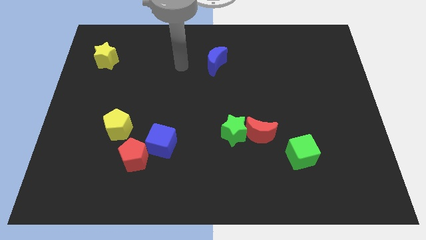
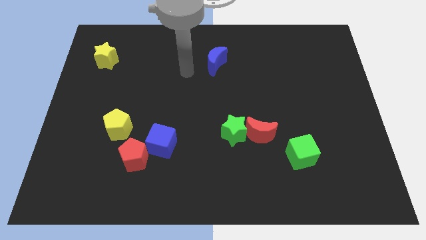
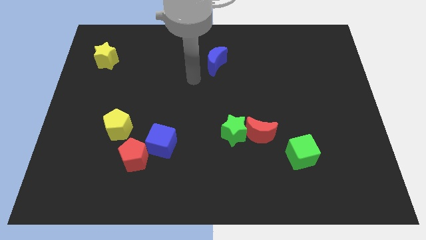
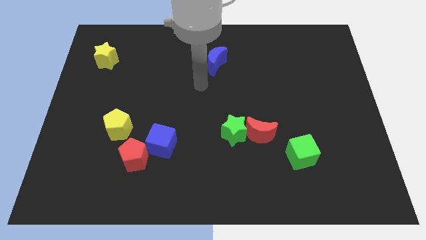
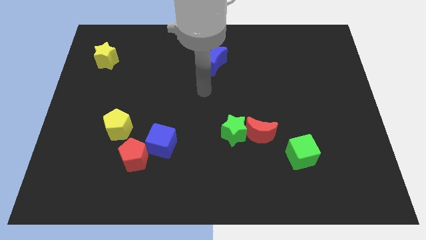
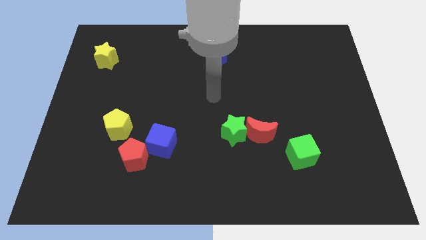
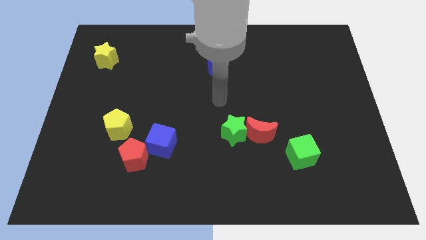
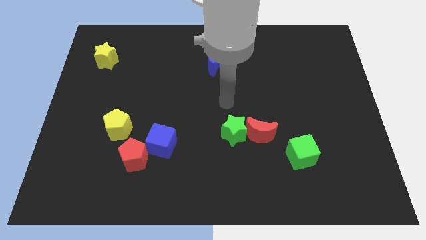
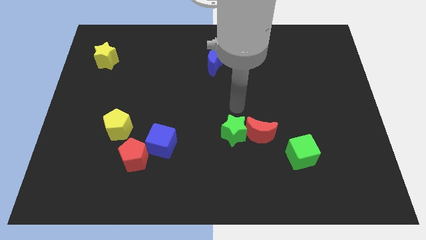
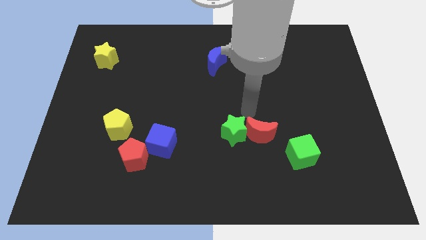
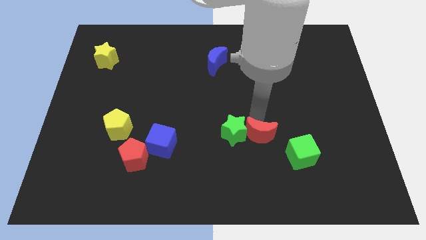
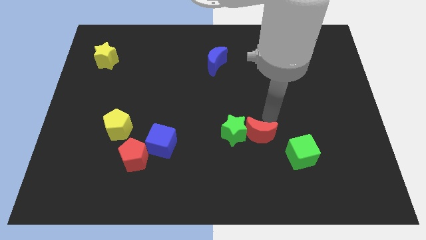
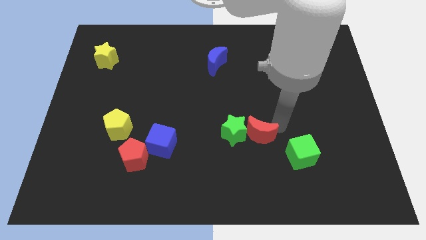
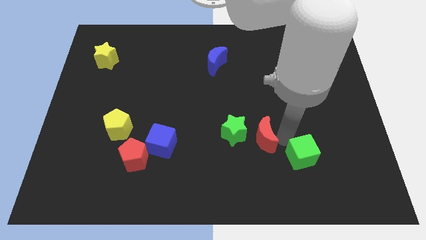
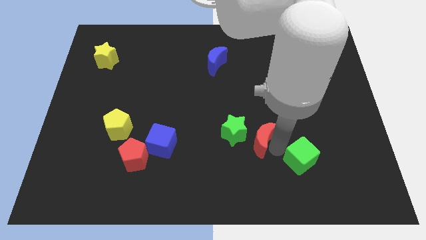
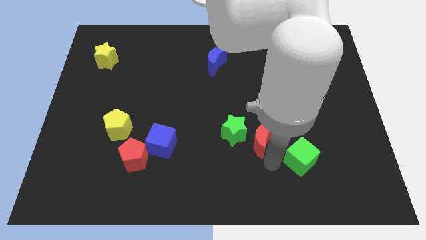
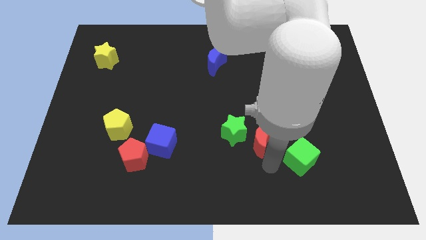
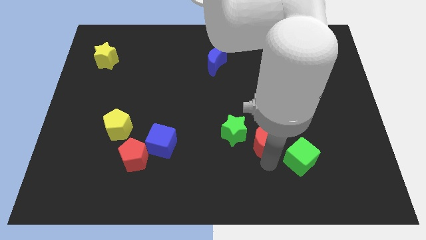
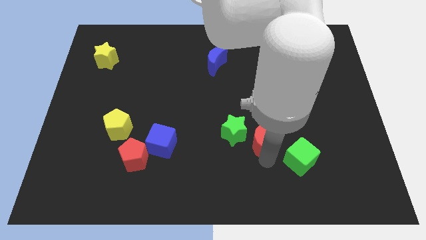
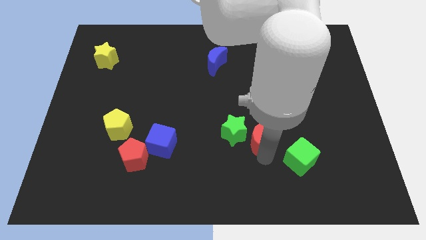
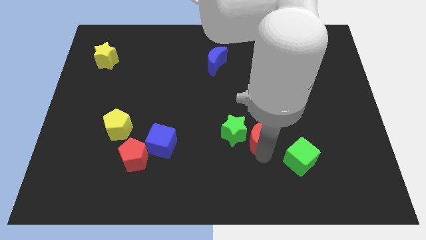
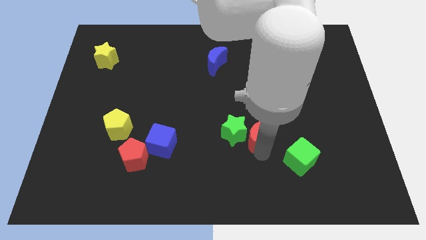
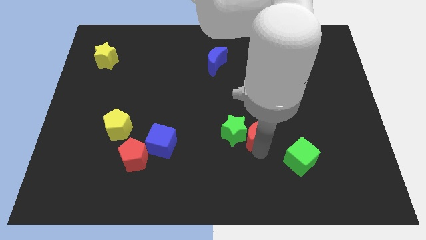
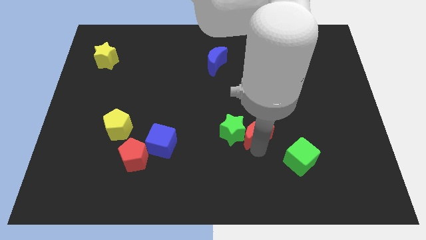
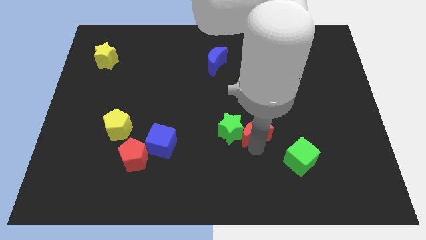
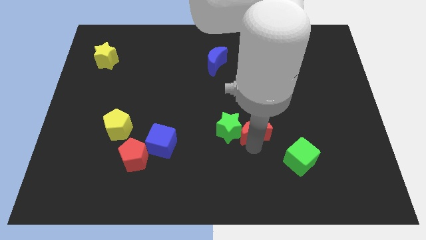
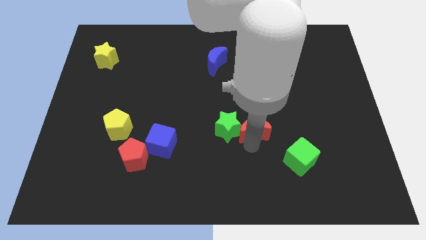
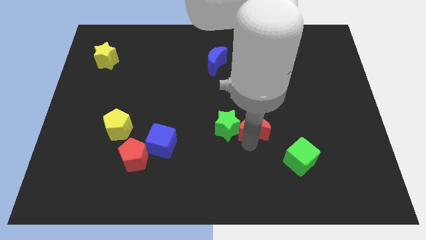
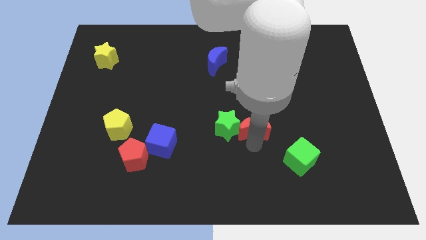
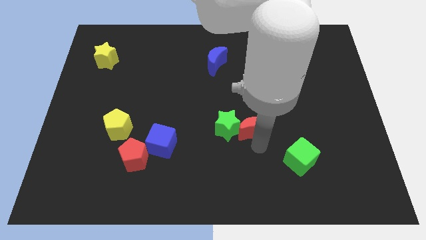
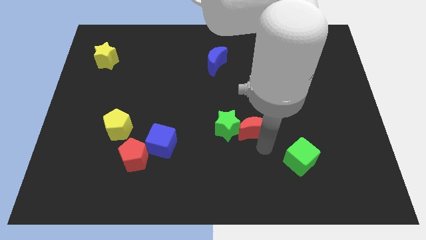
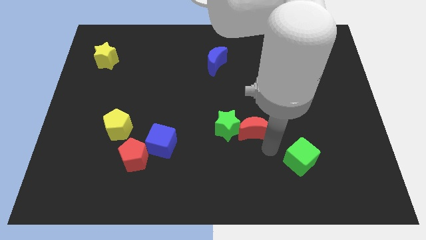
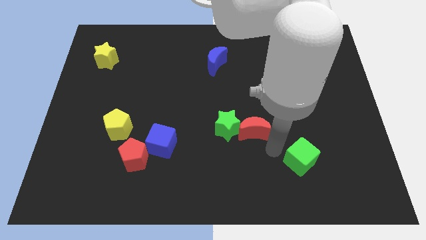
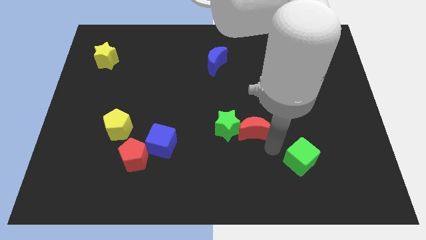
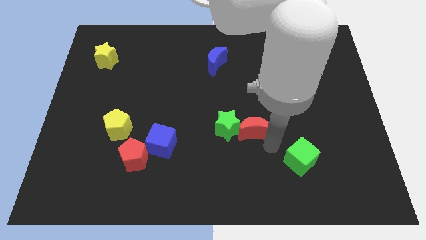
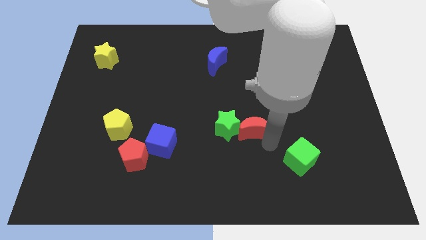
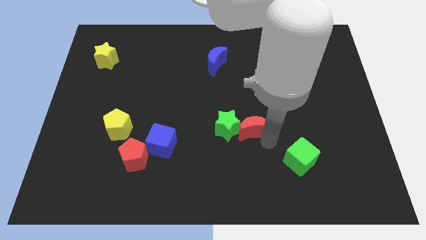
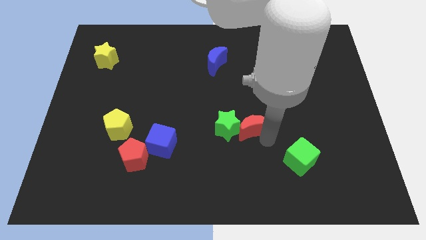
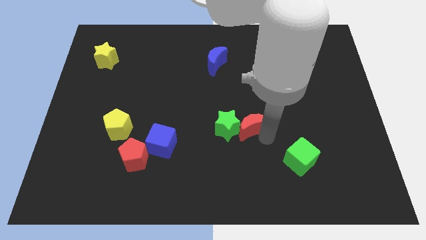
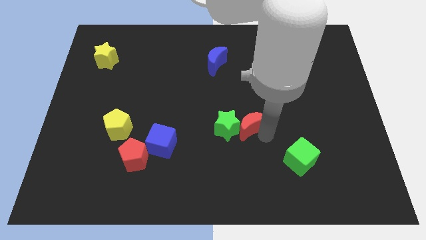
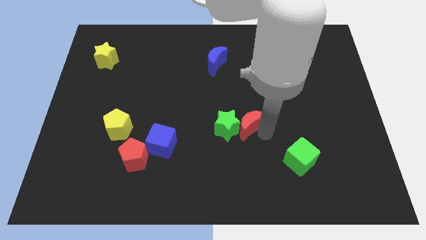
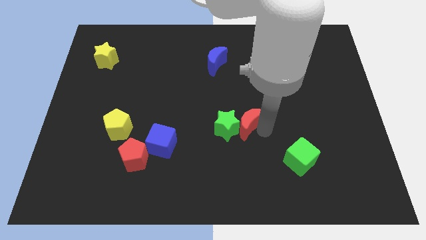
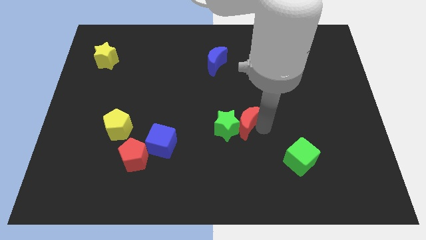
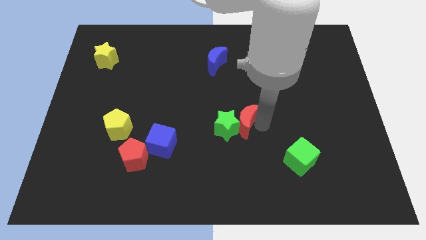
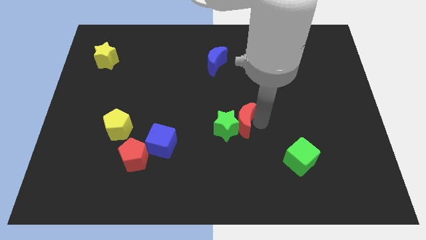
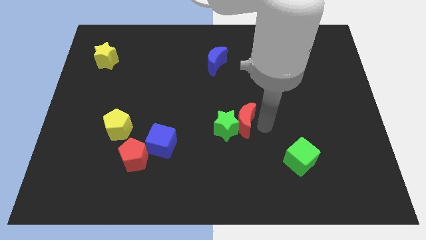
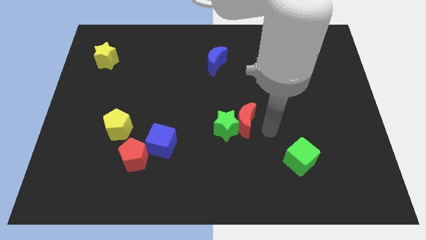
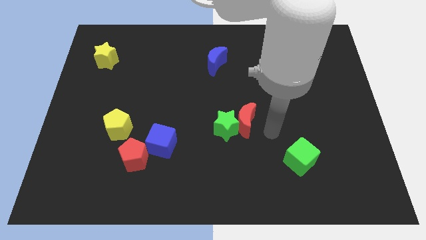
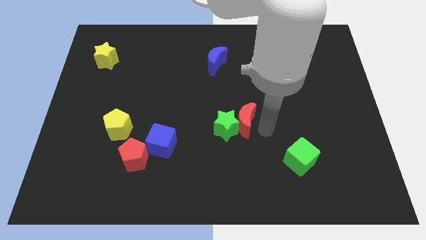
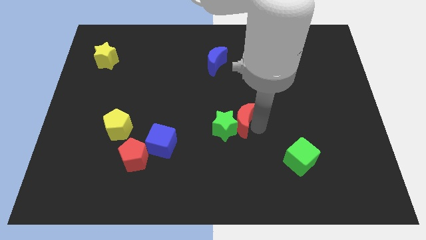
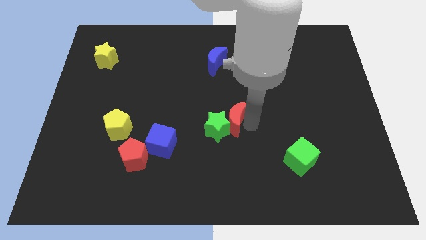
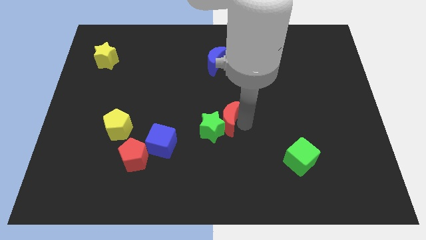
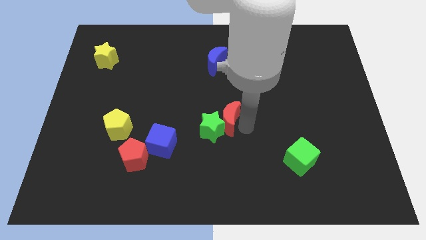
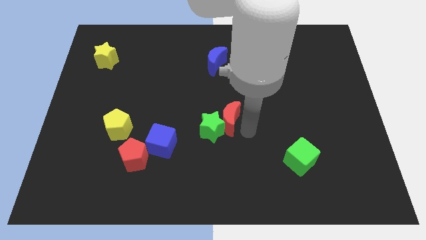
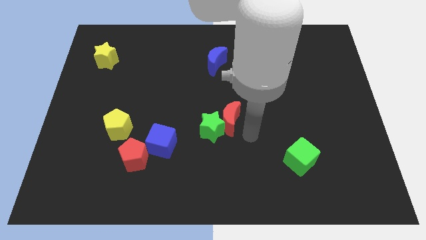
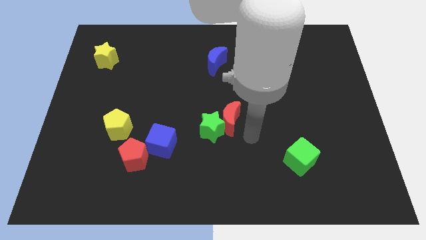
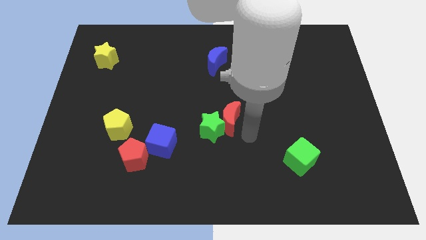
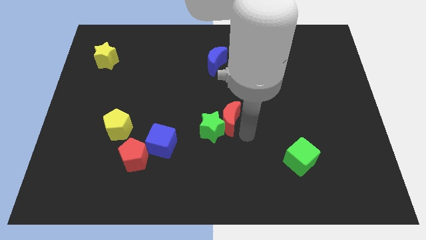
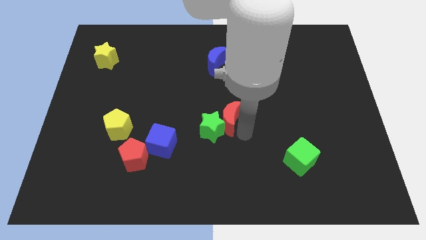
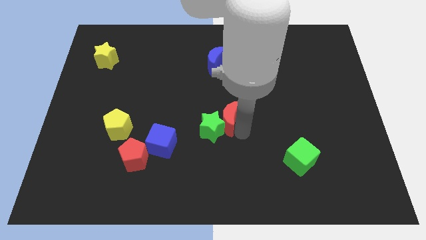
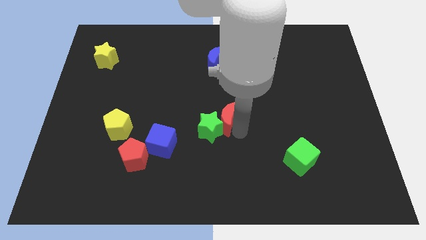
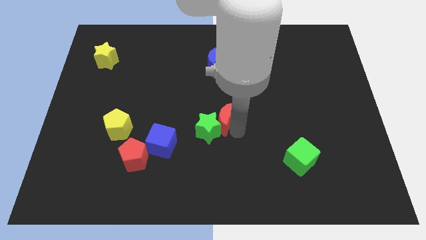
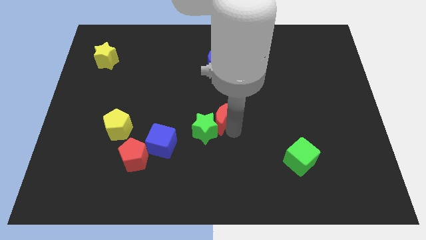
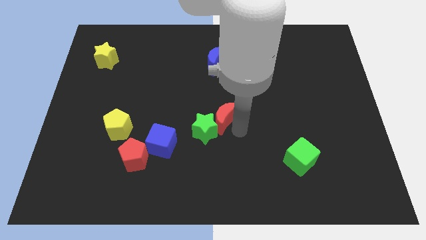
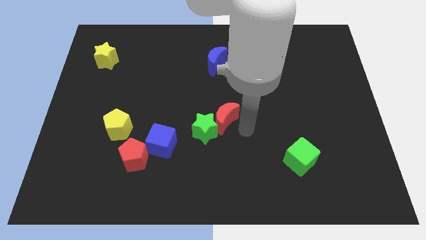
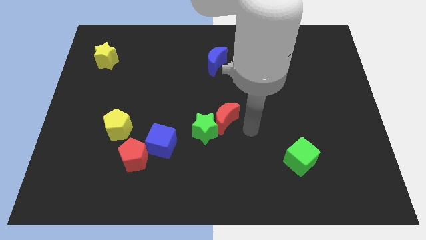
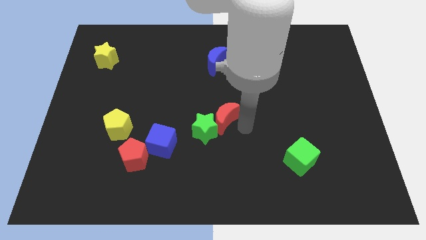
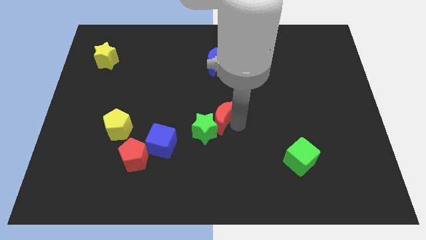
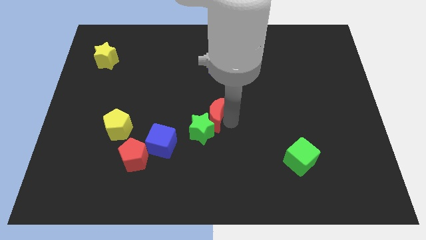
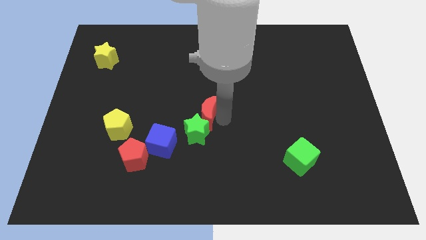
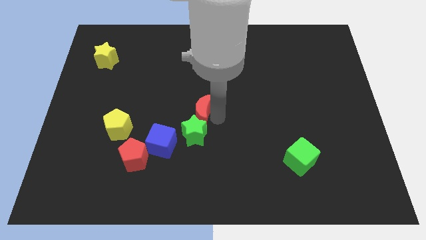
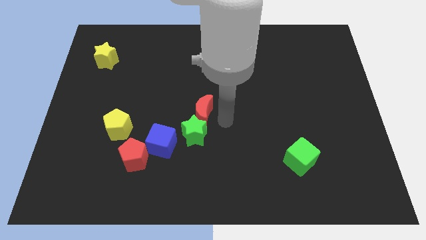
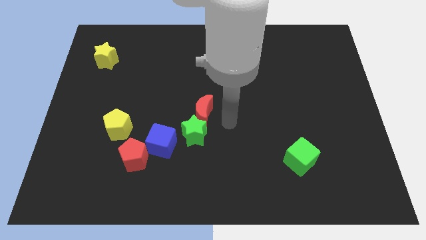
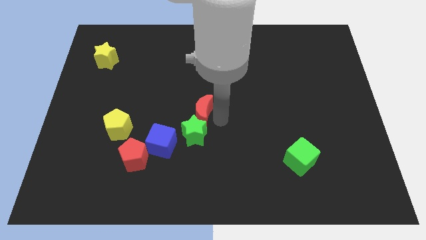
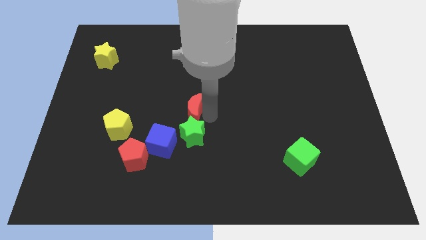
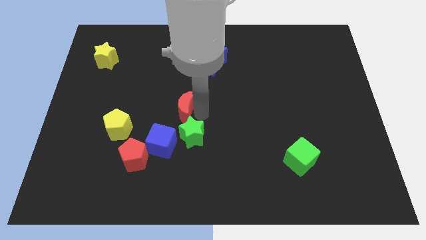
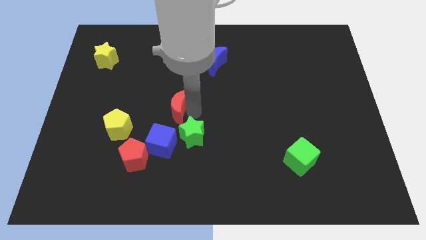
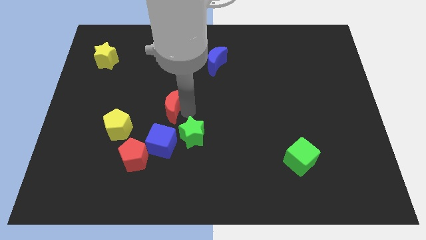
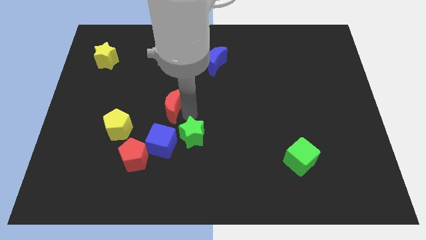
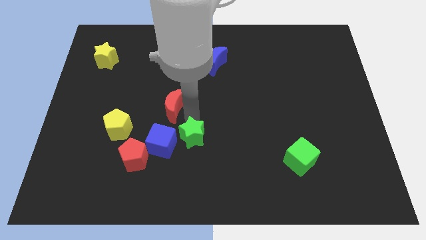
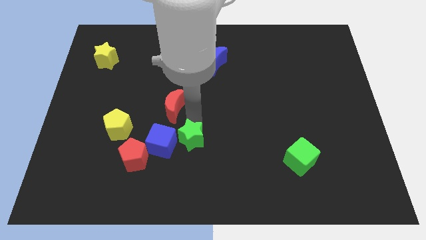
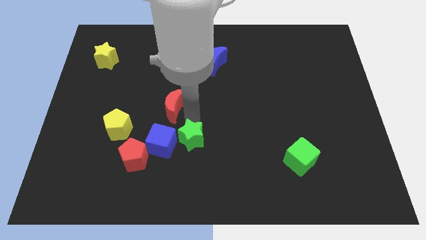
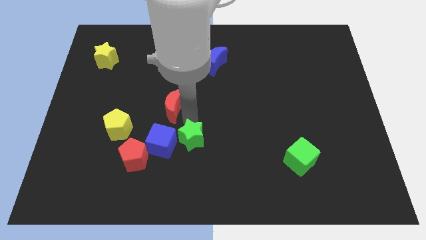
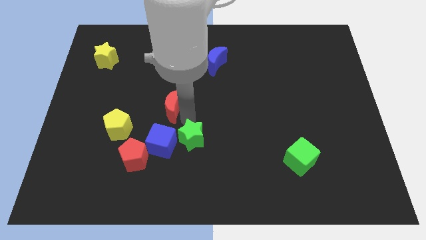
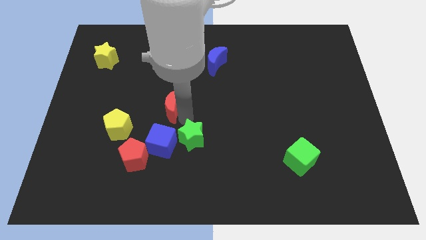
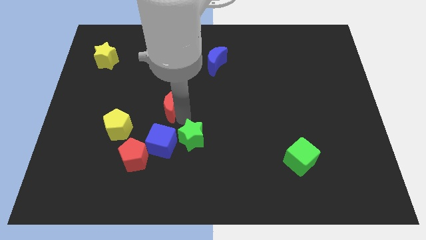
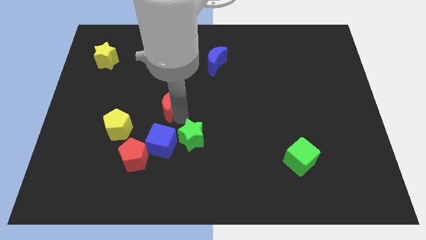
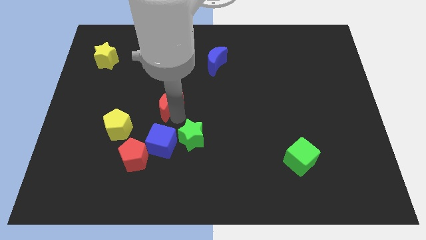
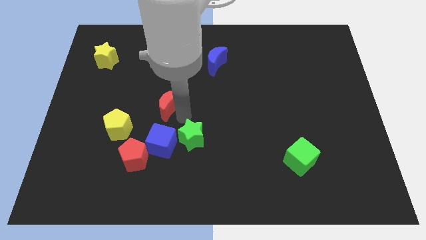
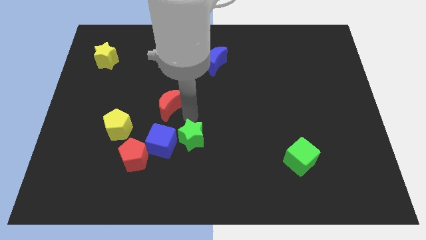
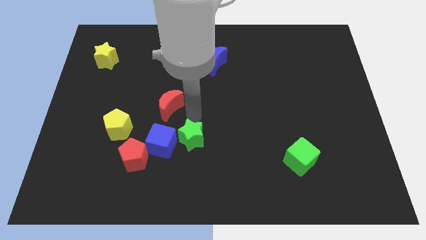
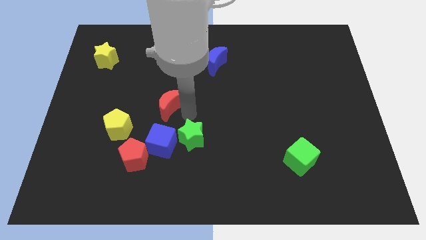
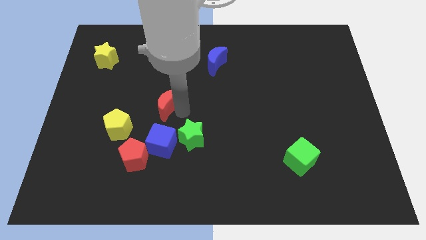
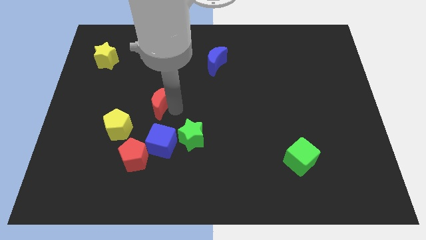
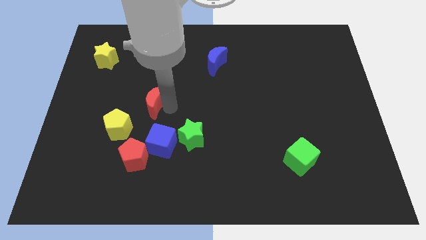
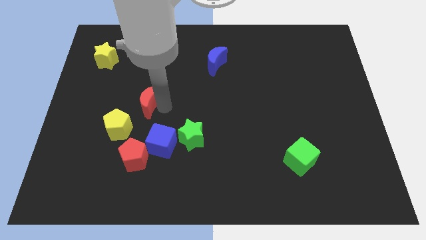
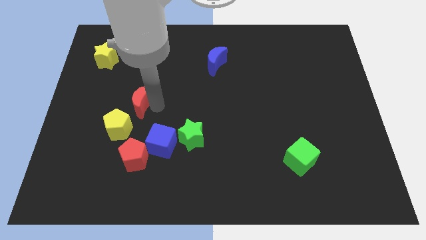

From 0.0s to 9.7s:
move the red moon to the top of the yellow pentagon
